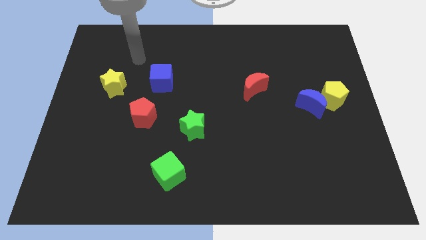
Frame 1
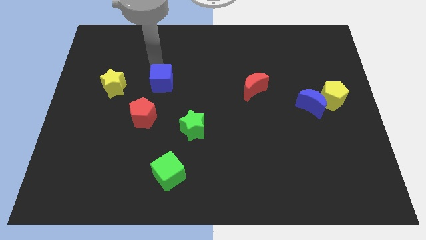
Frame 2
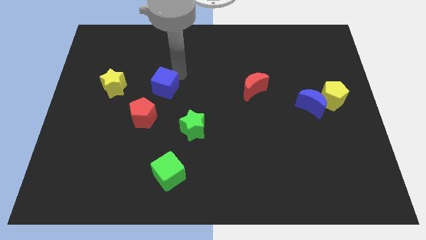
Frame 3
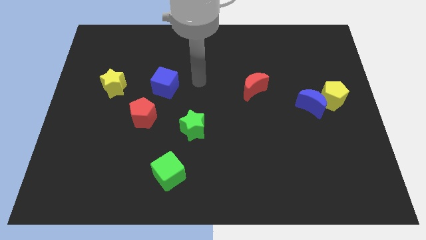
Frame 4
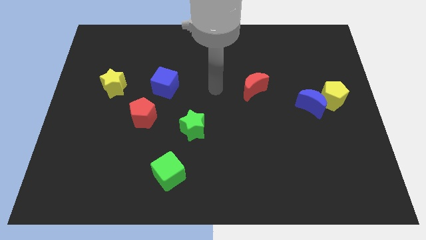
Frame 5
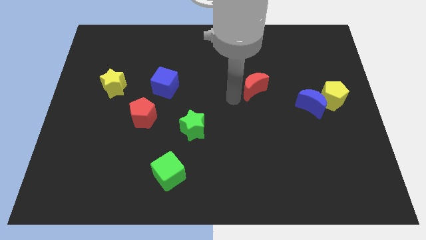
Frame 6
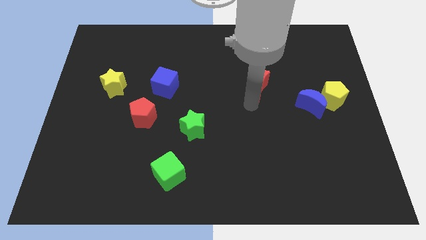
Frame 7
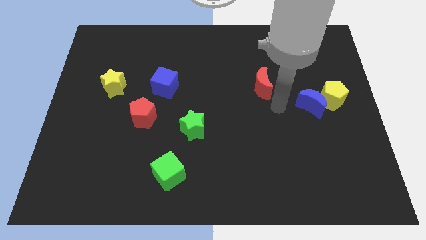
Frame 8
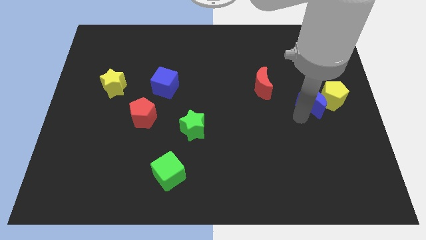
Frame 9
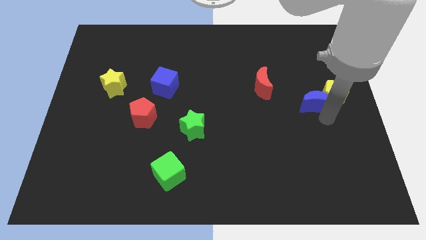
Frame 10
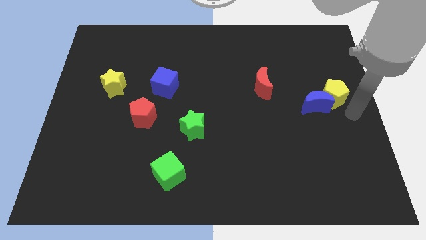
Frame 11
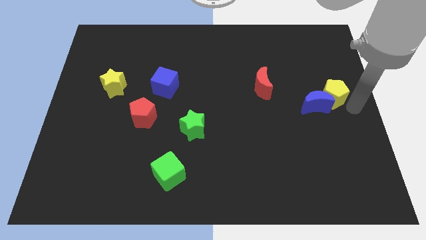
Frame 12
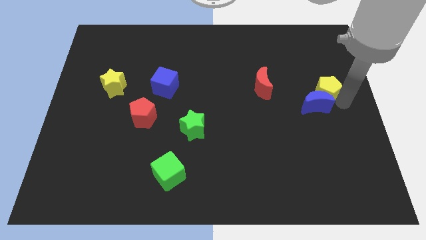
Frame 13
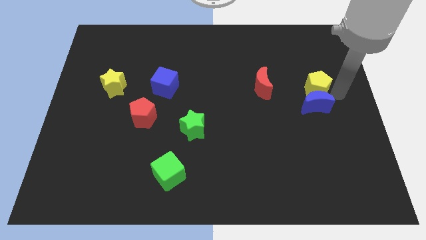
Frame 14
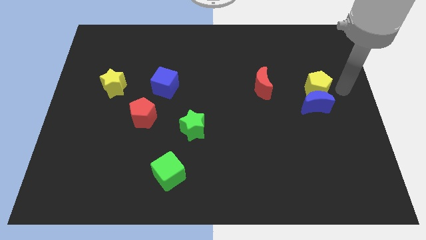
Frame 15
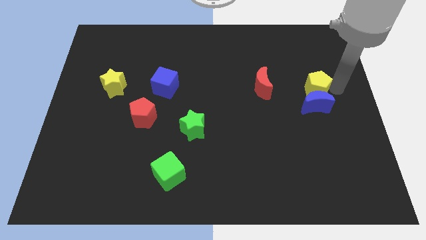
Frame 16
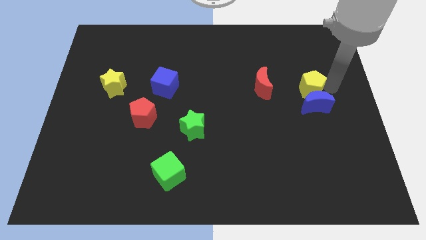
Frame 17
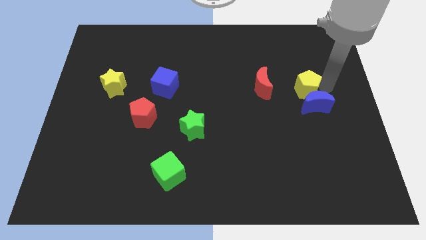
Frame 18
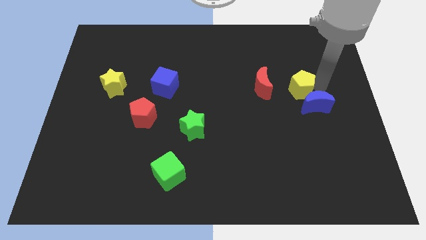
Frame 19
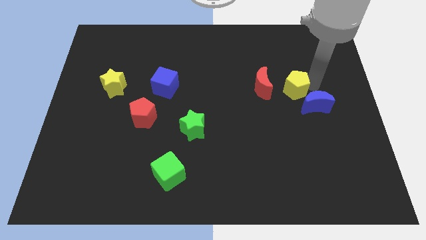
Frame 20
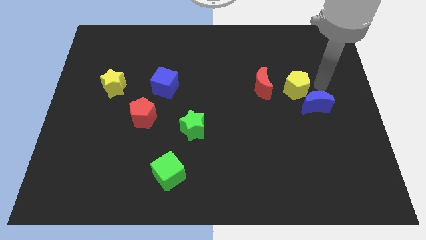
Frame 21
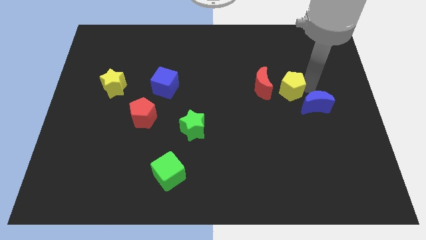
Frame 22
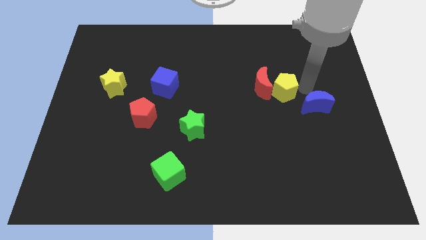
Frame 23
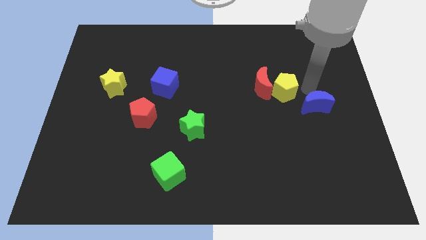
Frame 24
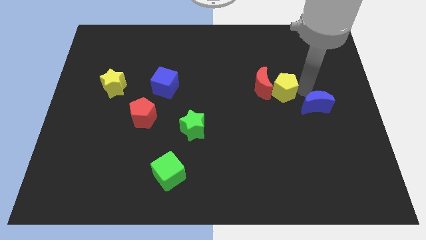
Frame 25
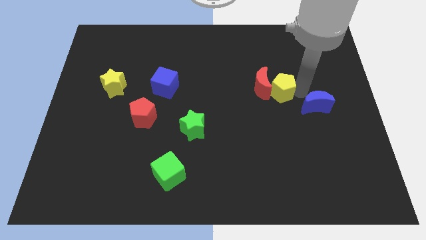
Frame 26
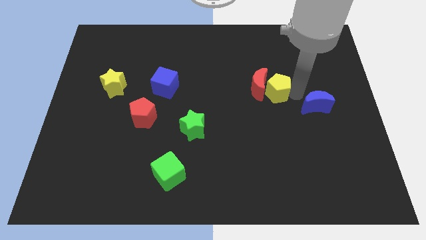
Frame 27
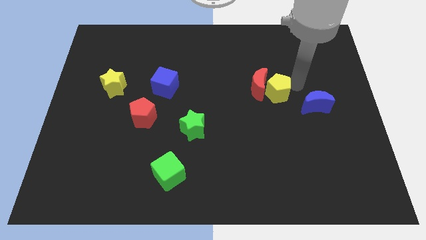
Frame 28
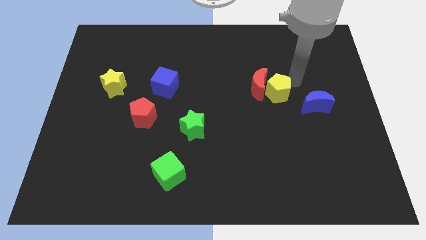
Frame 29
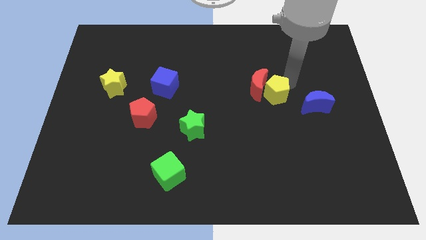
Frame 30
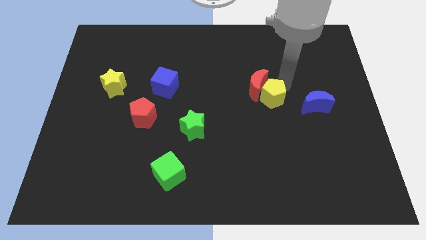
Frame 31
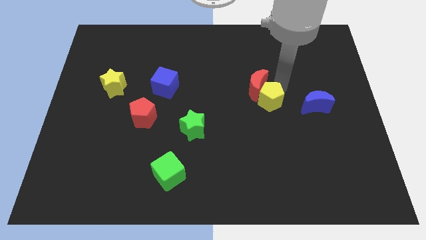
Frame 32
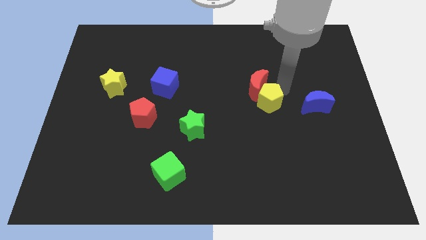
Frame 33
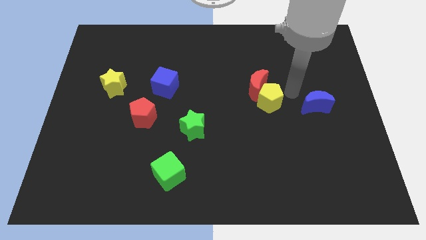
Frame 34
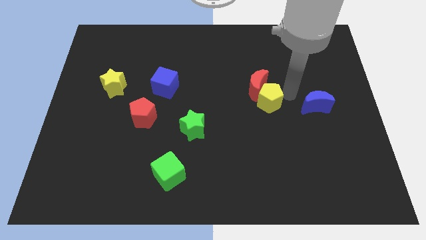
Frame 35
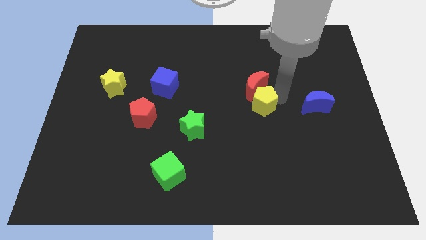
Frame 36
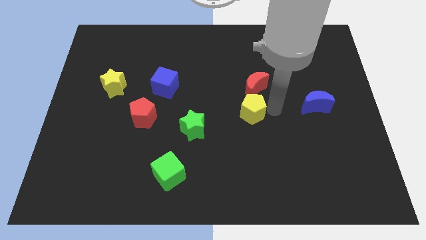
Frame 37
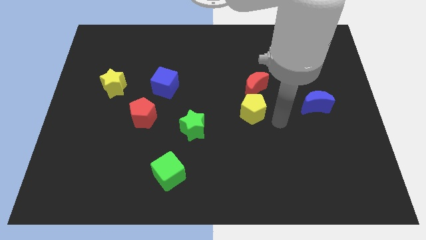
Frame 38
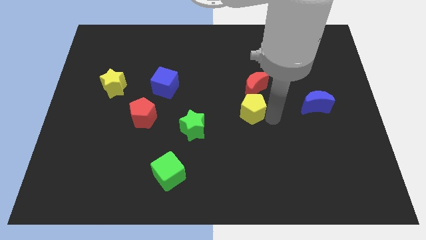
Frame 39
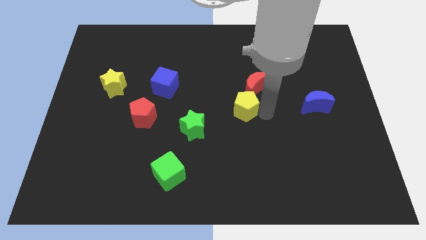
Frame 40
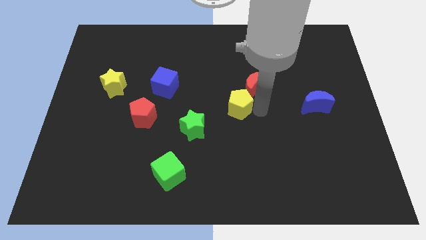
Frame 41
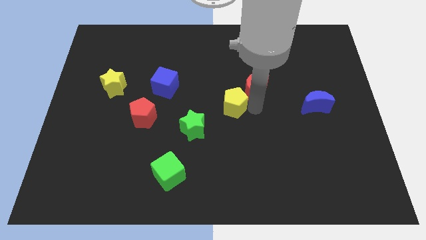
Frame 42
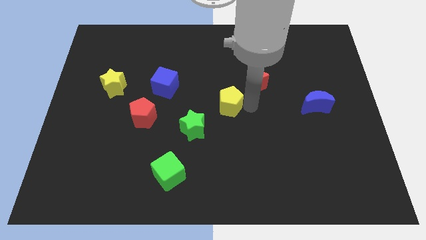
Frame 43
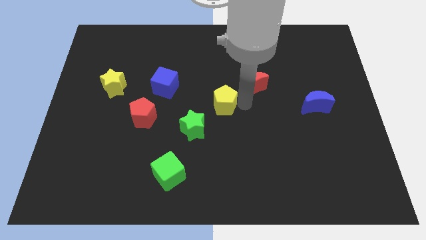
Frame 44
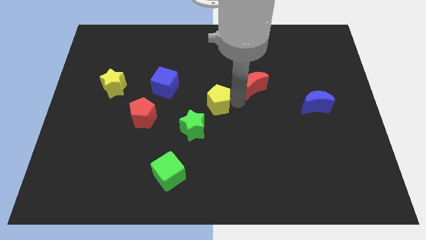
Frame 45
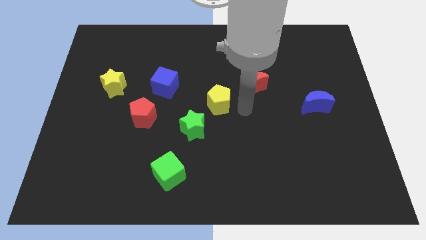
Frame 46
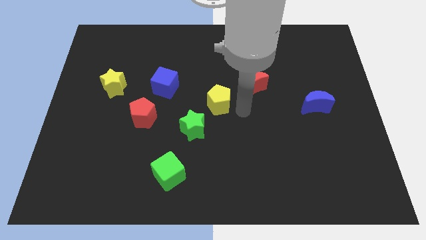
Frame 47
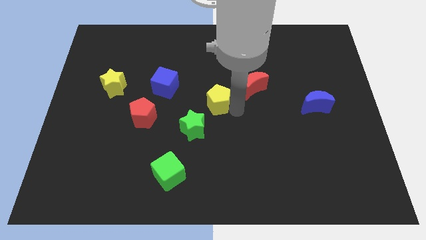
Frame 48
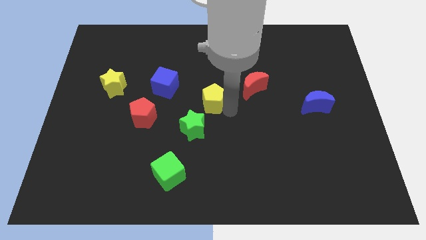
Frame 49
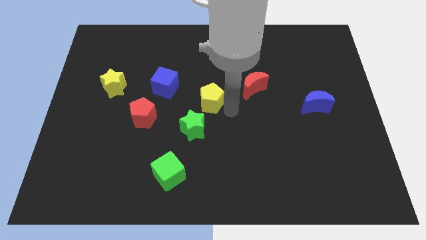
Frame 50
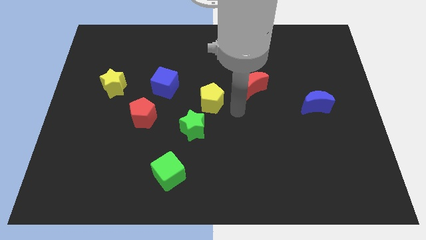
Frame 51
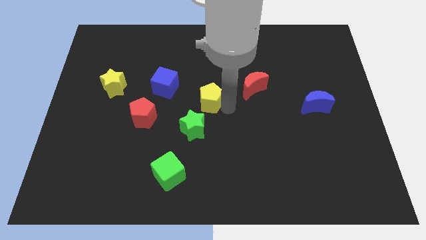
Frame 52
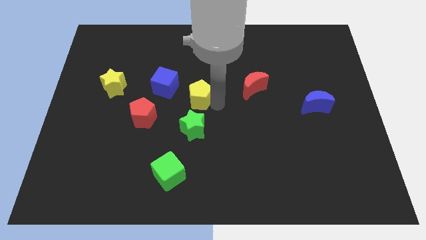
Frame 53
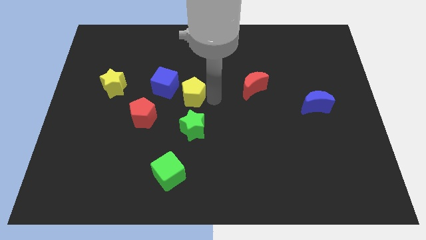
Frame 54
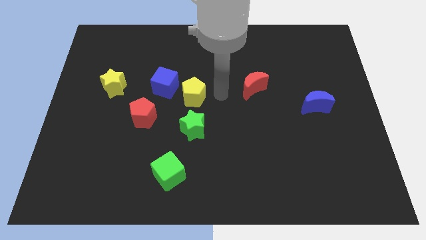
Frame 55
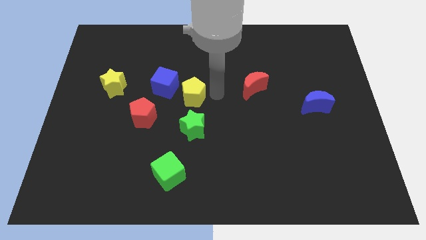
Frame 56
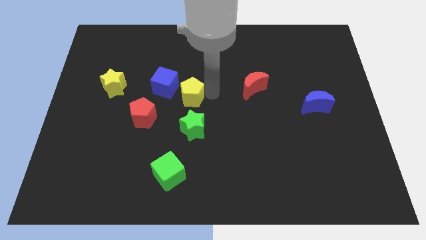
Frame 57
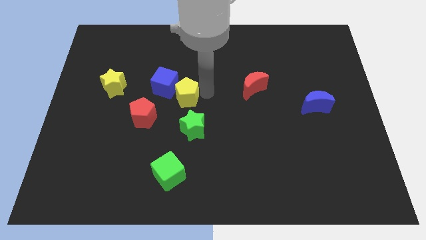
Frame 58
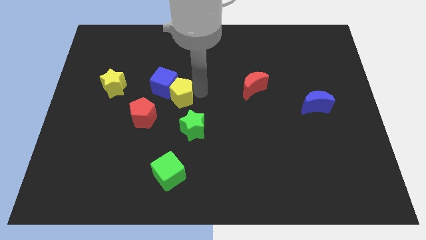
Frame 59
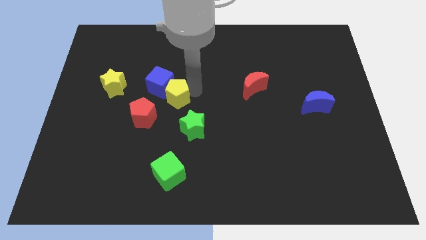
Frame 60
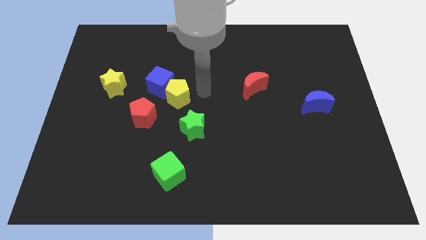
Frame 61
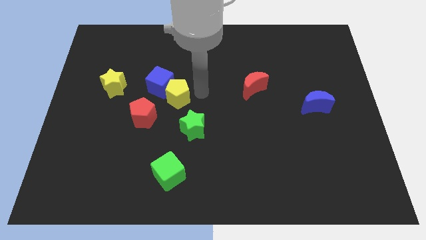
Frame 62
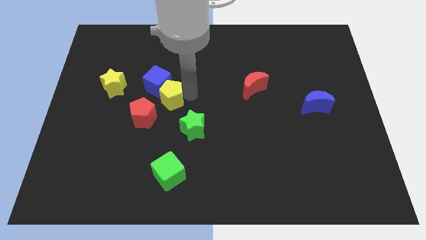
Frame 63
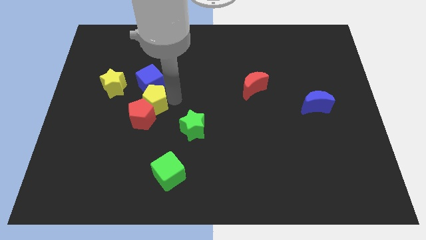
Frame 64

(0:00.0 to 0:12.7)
push the yellow pentagon to the bottom right side of the yellow star
